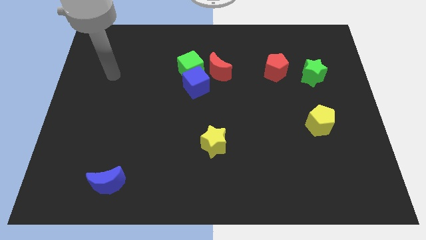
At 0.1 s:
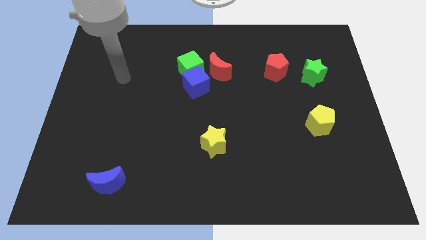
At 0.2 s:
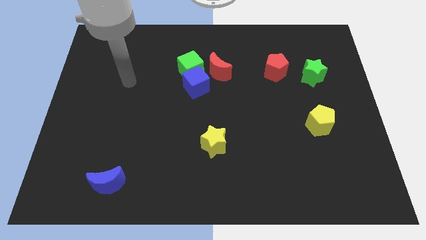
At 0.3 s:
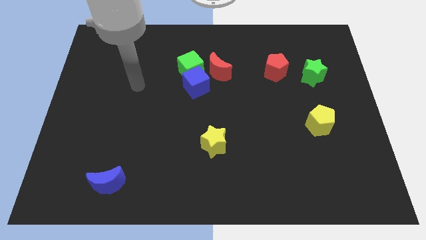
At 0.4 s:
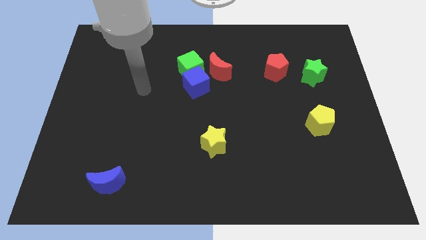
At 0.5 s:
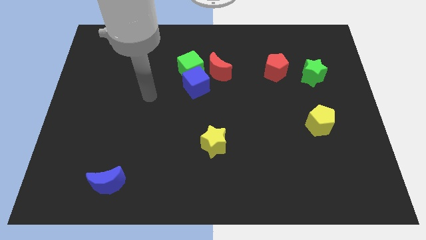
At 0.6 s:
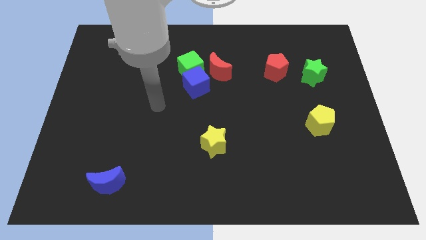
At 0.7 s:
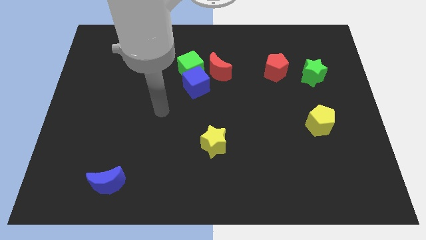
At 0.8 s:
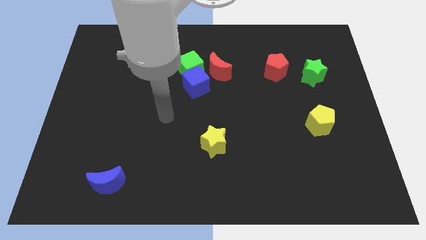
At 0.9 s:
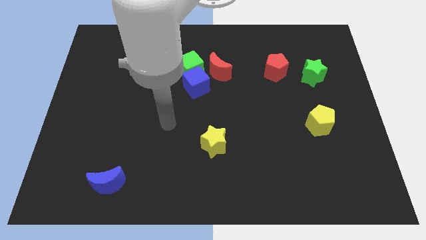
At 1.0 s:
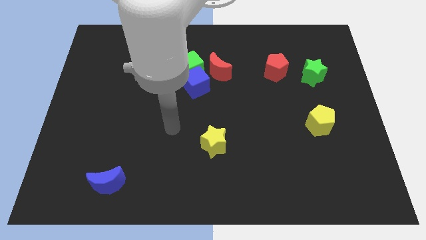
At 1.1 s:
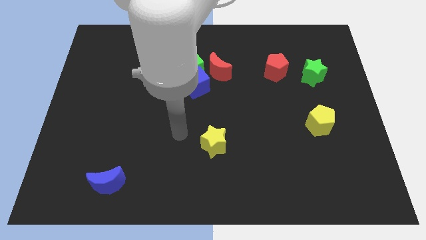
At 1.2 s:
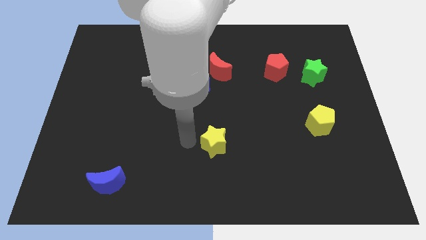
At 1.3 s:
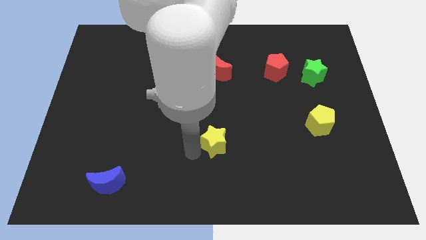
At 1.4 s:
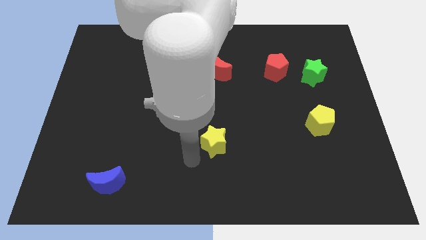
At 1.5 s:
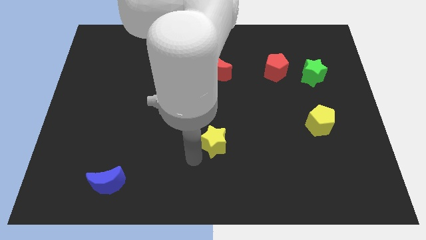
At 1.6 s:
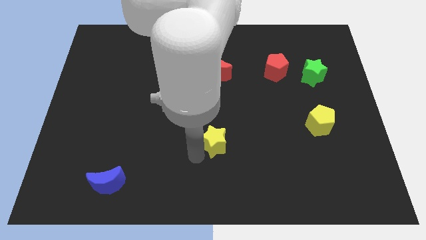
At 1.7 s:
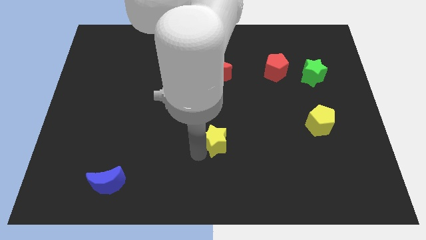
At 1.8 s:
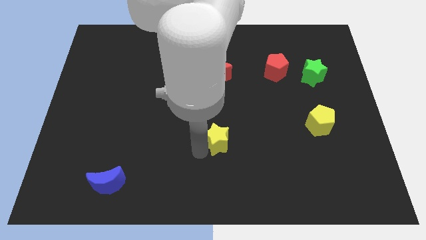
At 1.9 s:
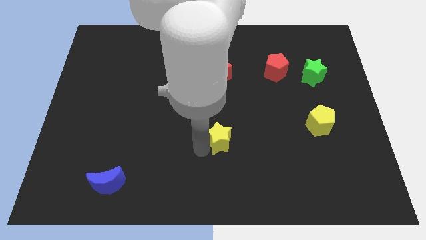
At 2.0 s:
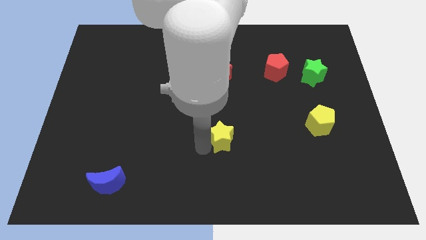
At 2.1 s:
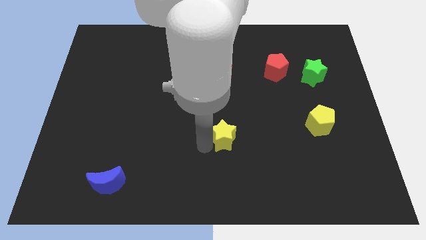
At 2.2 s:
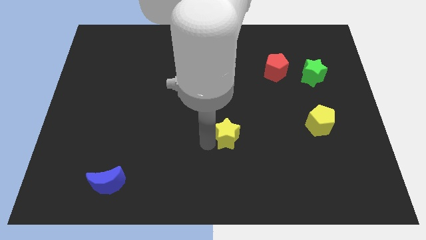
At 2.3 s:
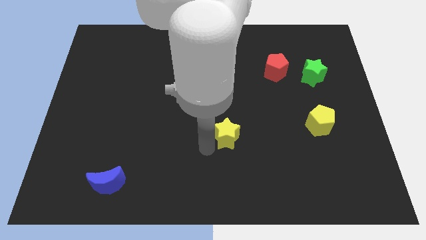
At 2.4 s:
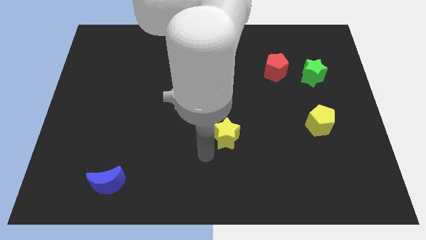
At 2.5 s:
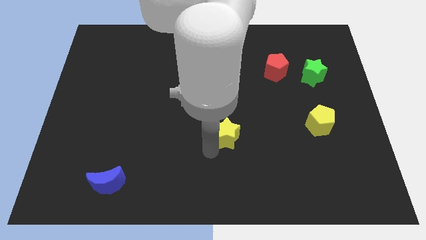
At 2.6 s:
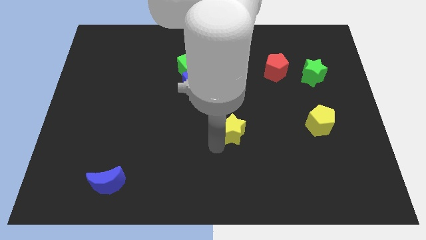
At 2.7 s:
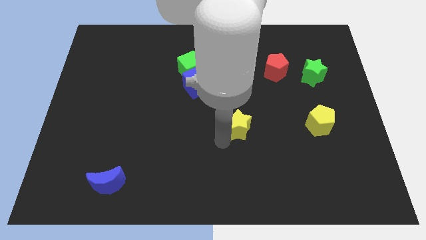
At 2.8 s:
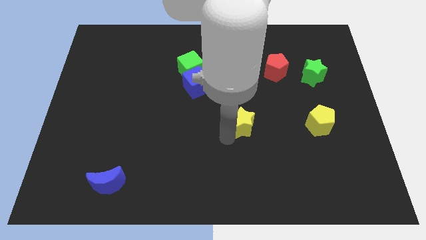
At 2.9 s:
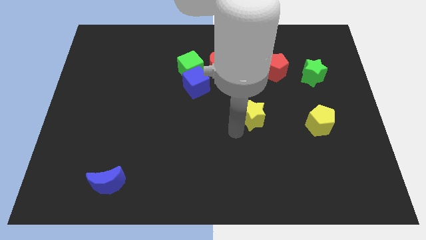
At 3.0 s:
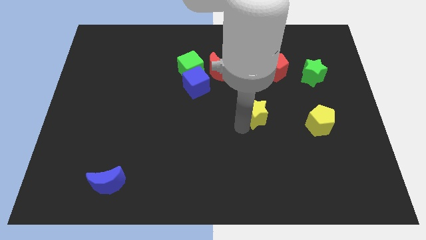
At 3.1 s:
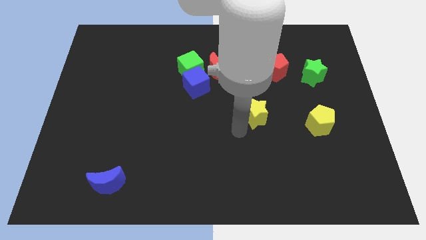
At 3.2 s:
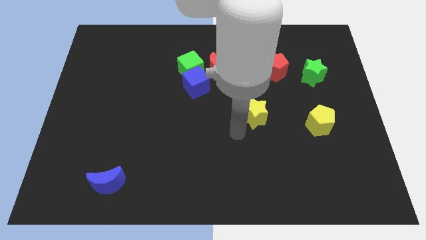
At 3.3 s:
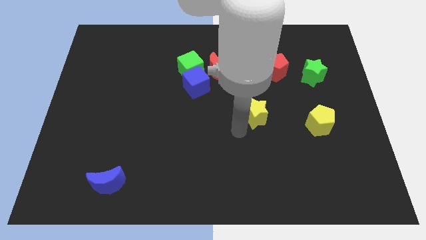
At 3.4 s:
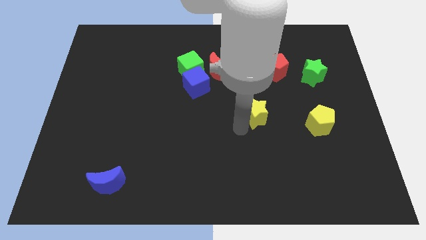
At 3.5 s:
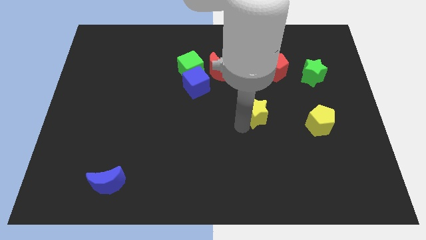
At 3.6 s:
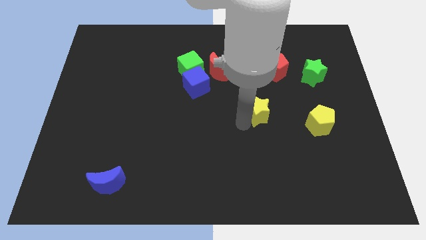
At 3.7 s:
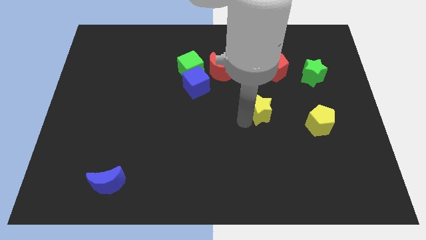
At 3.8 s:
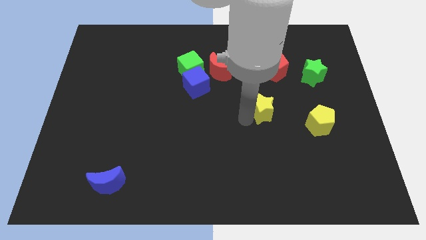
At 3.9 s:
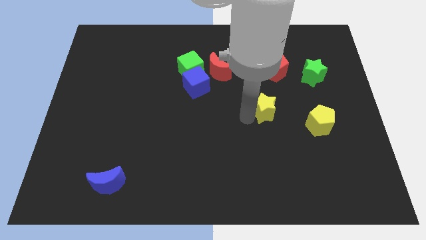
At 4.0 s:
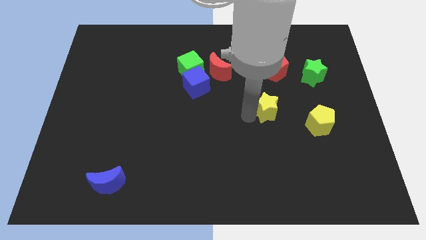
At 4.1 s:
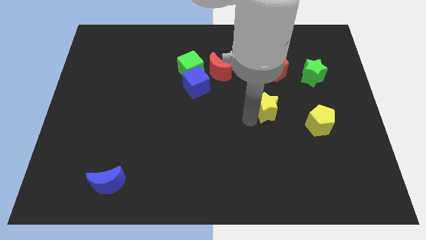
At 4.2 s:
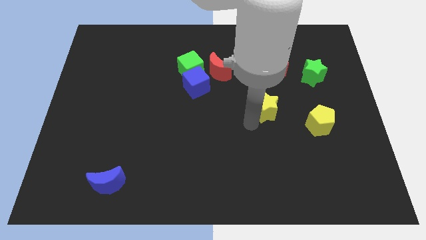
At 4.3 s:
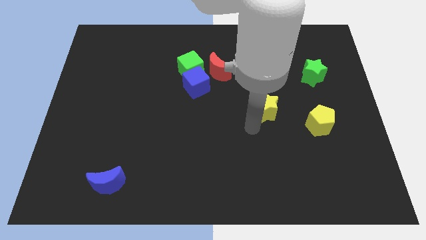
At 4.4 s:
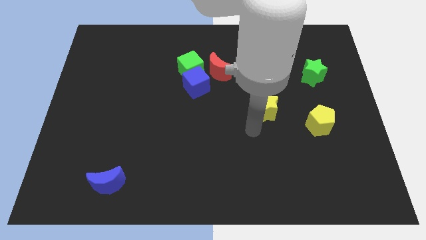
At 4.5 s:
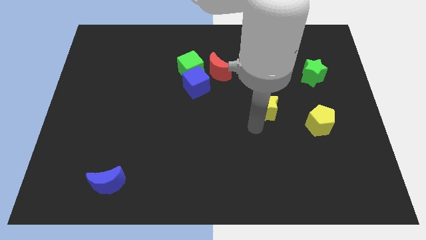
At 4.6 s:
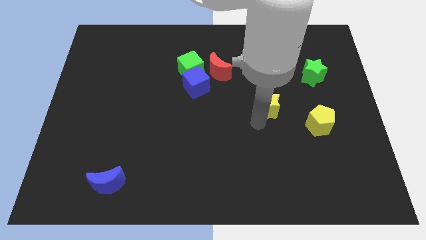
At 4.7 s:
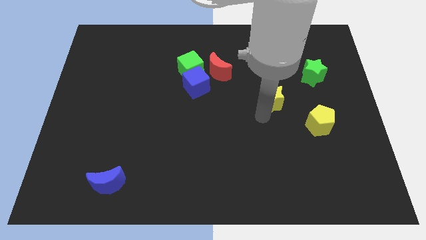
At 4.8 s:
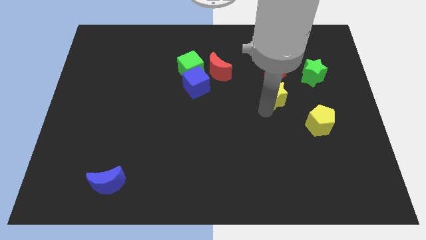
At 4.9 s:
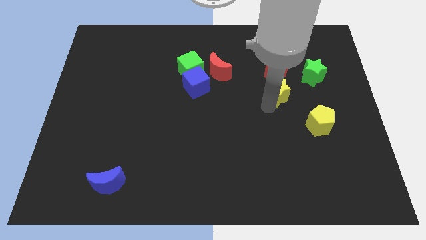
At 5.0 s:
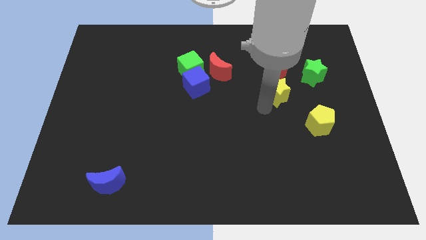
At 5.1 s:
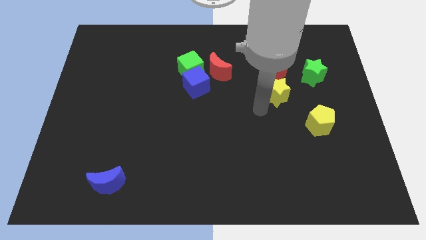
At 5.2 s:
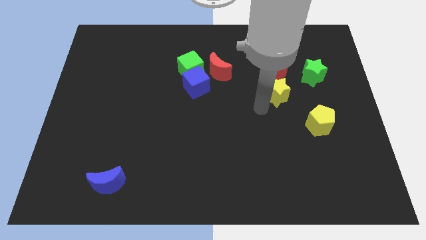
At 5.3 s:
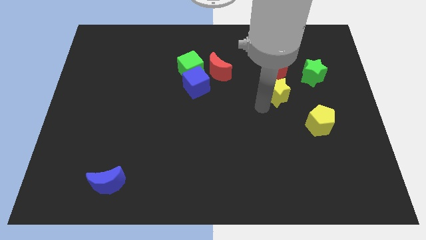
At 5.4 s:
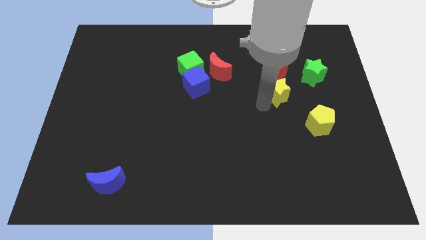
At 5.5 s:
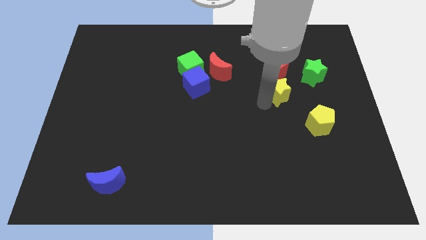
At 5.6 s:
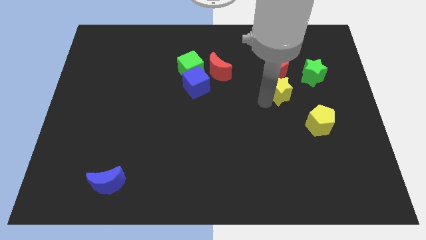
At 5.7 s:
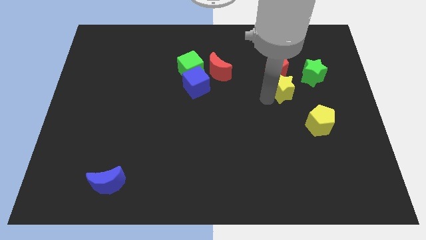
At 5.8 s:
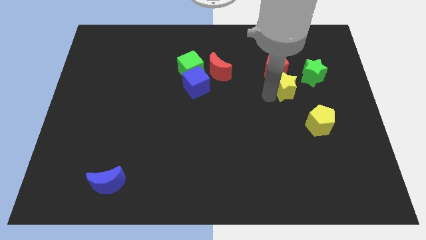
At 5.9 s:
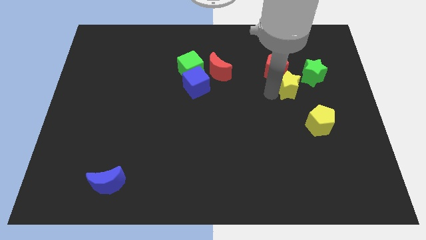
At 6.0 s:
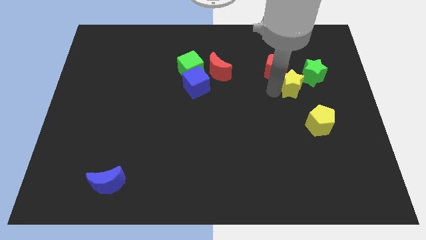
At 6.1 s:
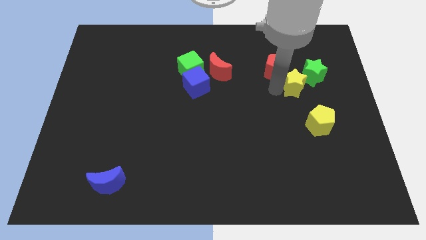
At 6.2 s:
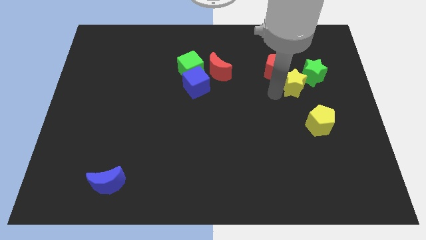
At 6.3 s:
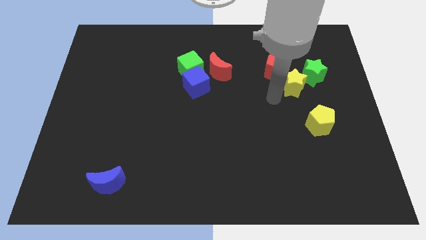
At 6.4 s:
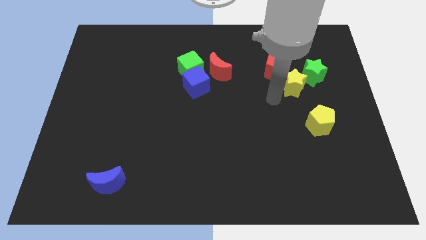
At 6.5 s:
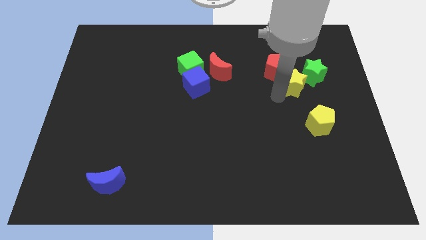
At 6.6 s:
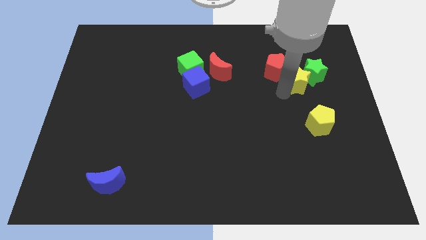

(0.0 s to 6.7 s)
put the yellow star close to the green star

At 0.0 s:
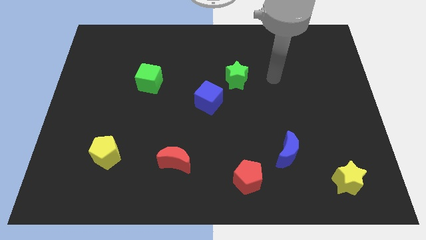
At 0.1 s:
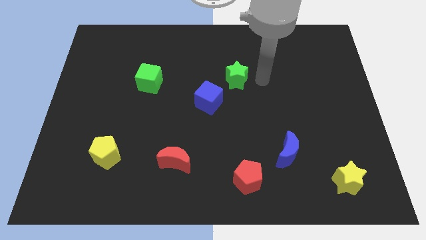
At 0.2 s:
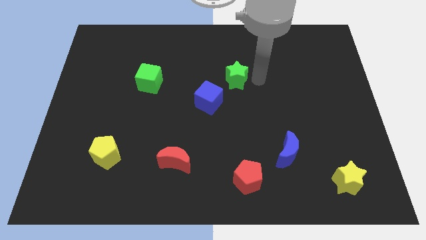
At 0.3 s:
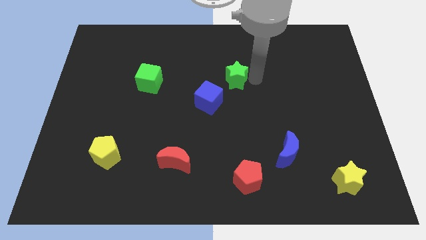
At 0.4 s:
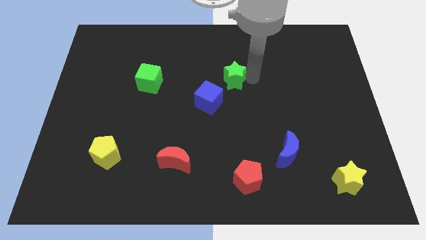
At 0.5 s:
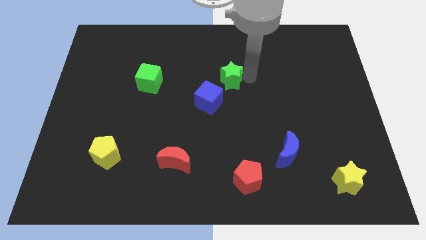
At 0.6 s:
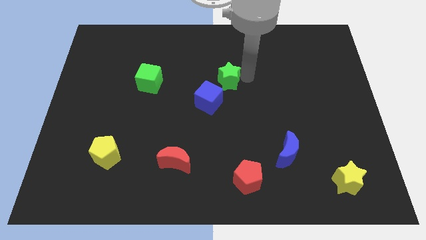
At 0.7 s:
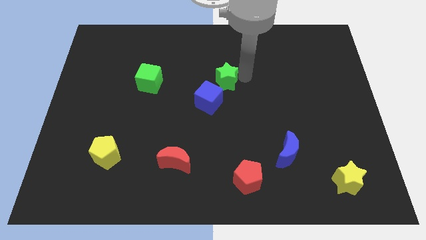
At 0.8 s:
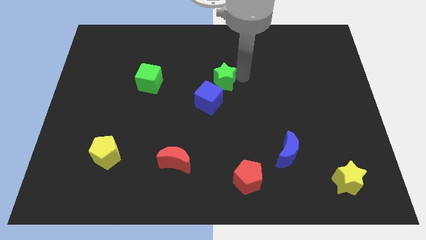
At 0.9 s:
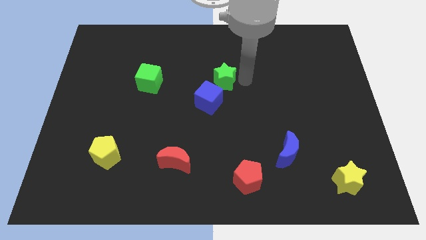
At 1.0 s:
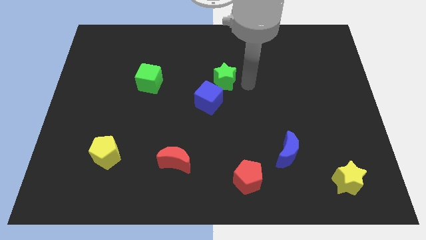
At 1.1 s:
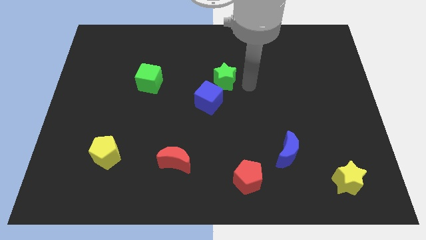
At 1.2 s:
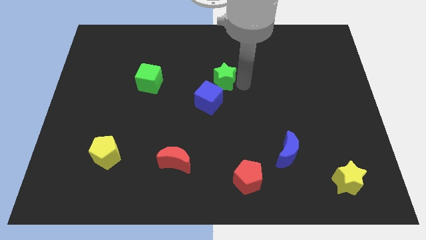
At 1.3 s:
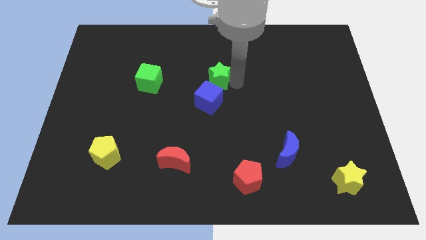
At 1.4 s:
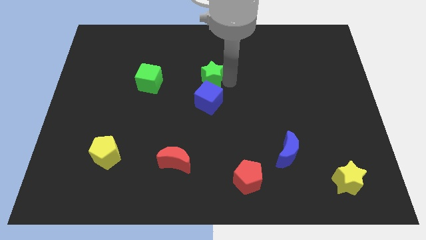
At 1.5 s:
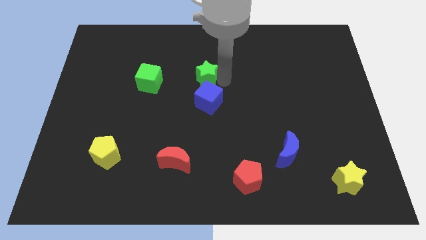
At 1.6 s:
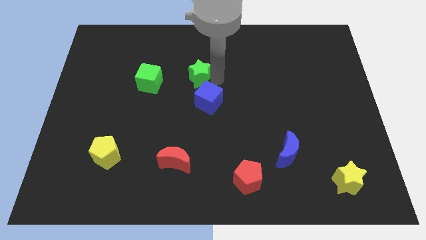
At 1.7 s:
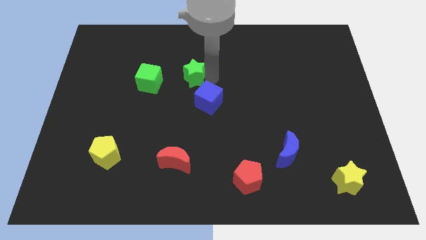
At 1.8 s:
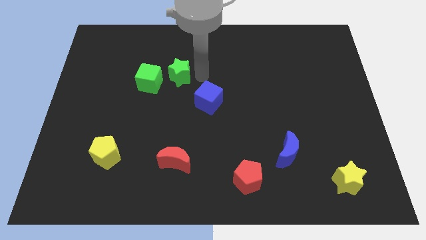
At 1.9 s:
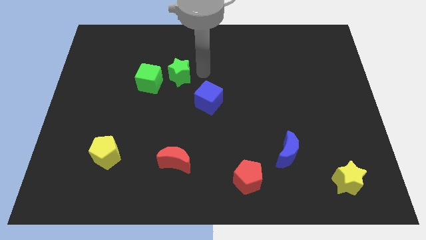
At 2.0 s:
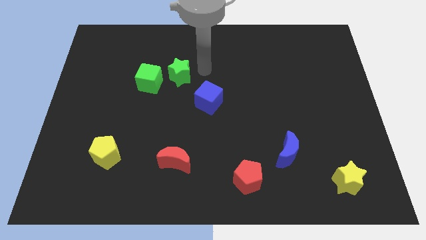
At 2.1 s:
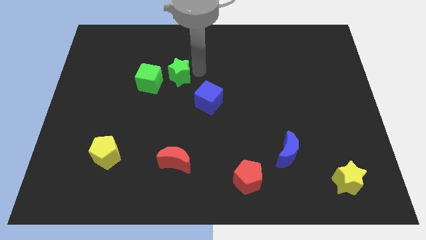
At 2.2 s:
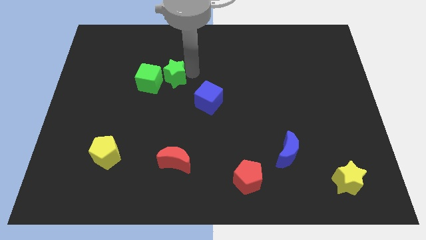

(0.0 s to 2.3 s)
push the green star to the green cube
